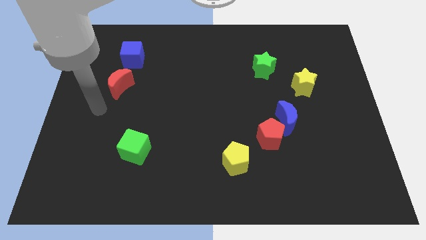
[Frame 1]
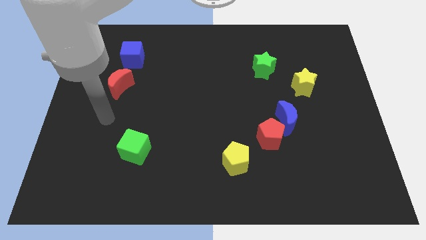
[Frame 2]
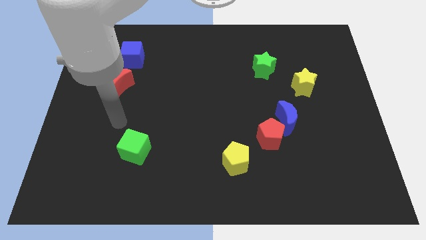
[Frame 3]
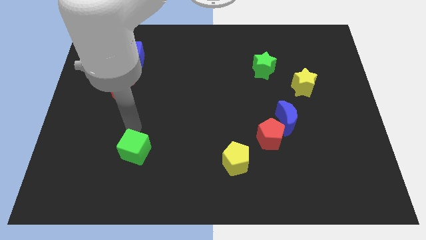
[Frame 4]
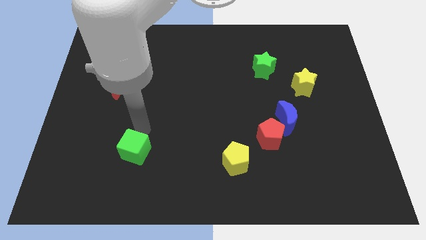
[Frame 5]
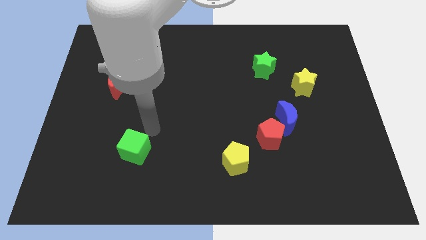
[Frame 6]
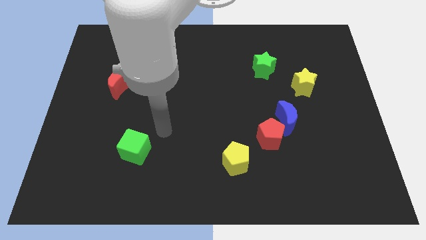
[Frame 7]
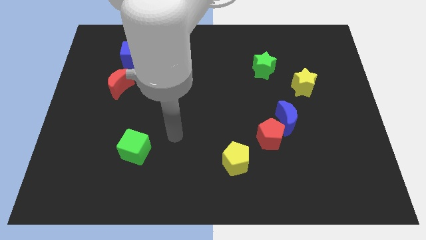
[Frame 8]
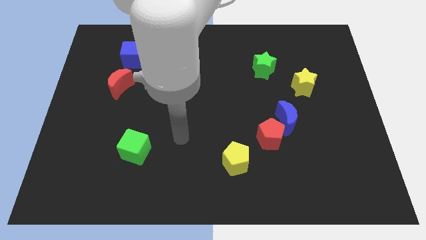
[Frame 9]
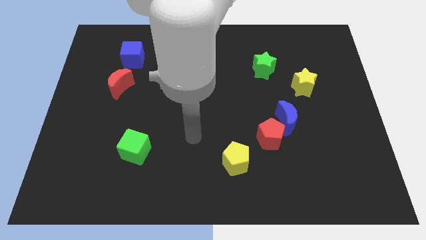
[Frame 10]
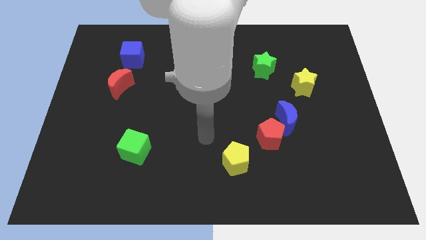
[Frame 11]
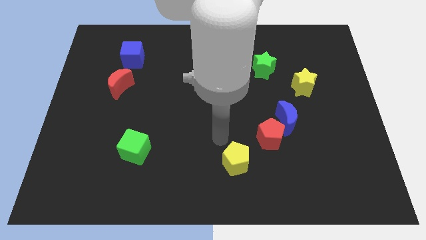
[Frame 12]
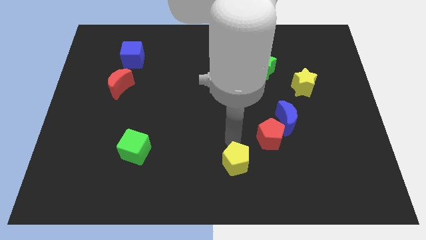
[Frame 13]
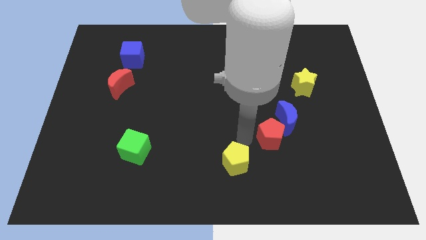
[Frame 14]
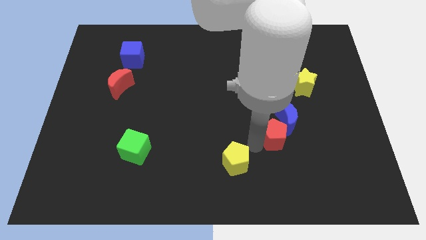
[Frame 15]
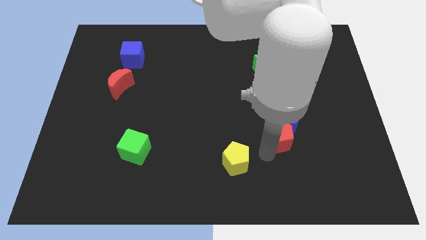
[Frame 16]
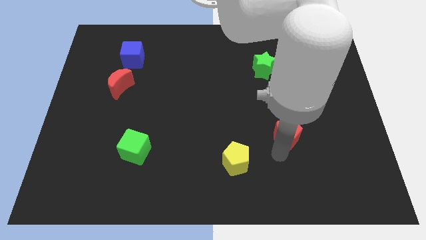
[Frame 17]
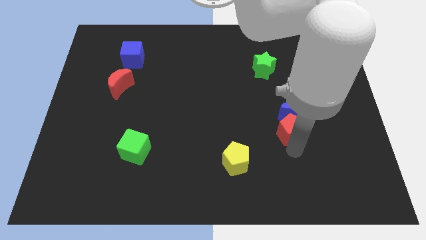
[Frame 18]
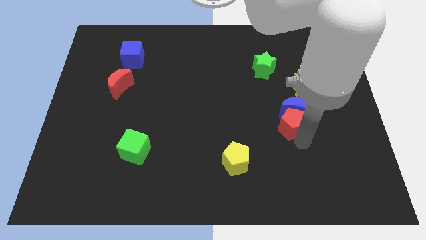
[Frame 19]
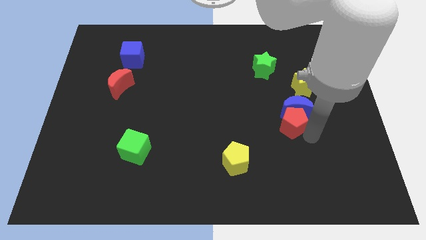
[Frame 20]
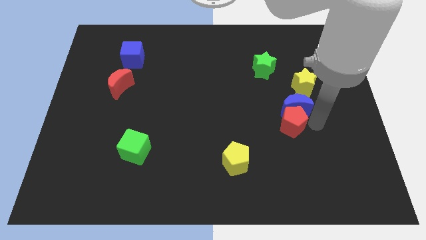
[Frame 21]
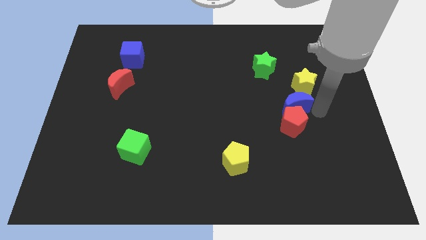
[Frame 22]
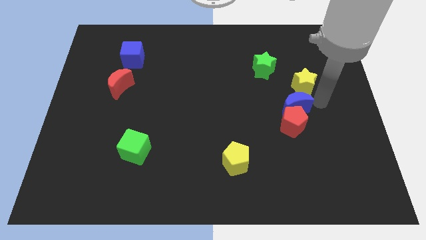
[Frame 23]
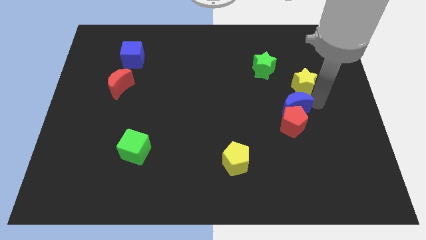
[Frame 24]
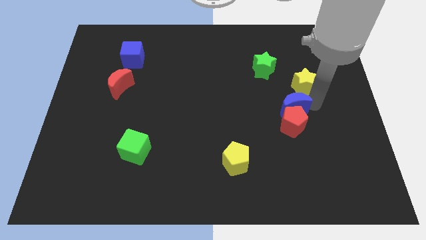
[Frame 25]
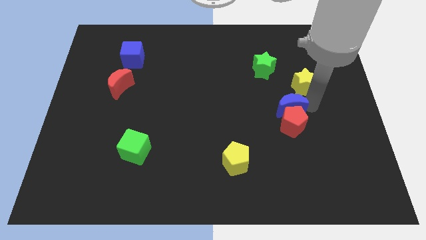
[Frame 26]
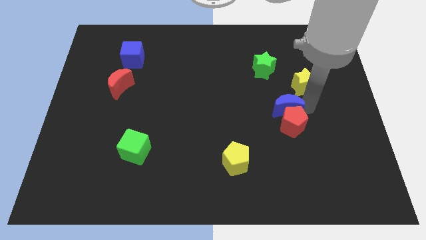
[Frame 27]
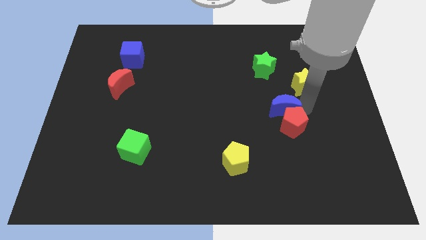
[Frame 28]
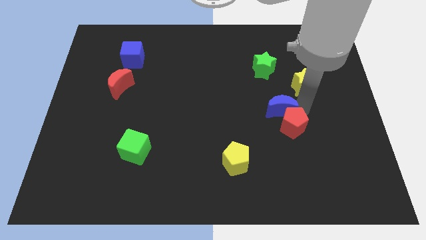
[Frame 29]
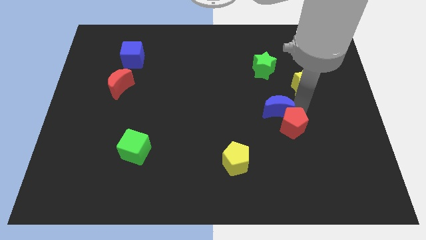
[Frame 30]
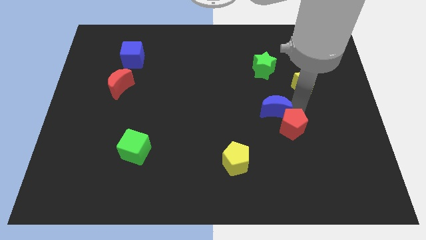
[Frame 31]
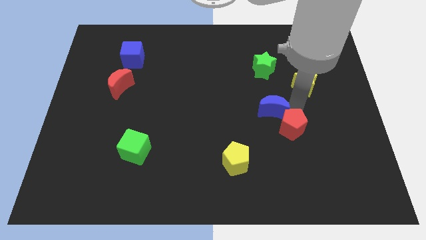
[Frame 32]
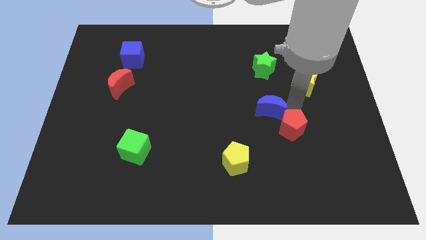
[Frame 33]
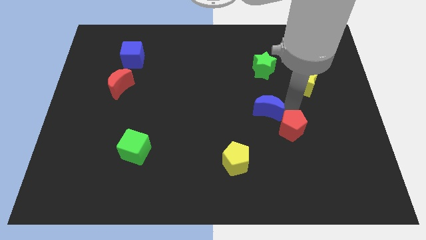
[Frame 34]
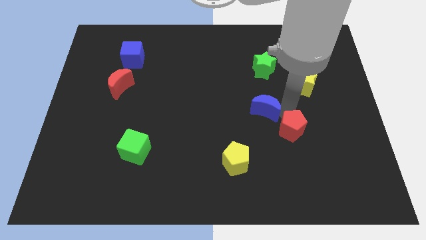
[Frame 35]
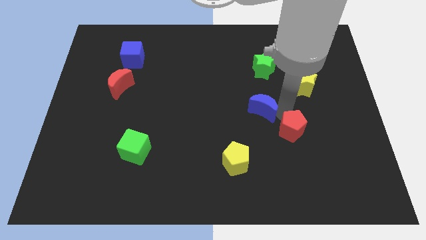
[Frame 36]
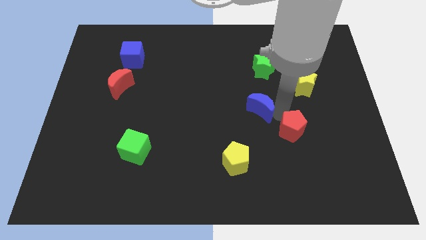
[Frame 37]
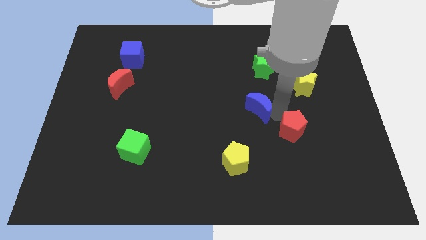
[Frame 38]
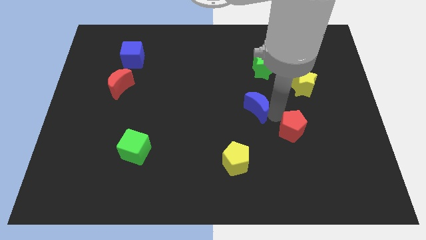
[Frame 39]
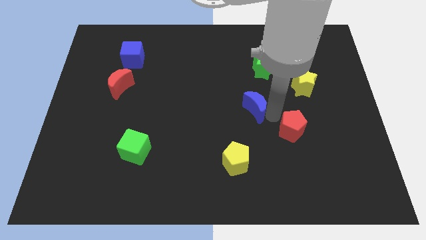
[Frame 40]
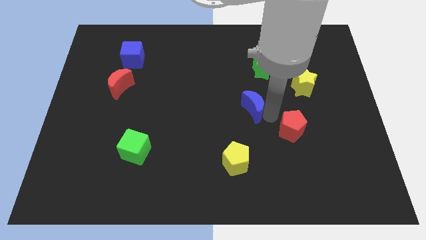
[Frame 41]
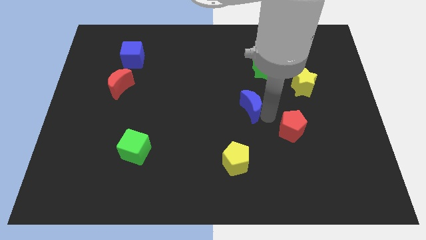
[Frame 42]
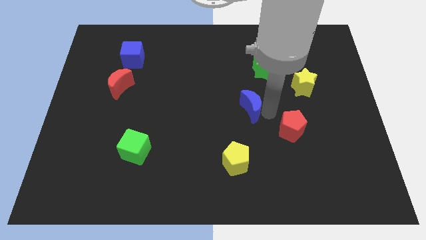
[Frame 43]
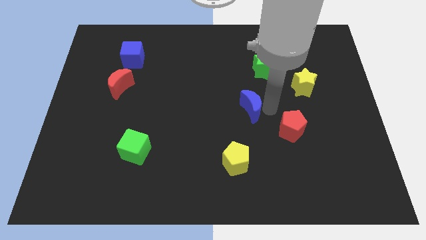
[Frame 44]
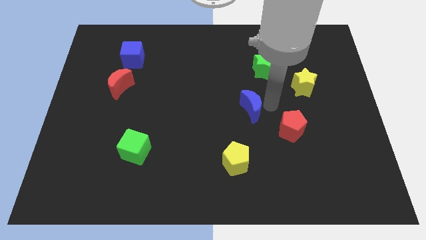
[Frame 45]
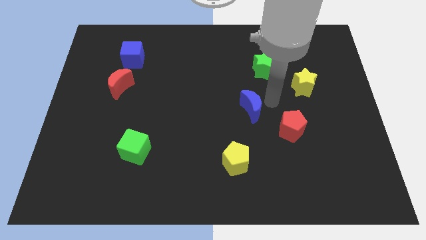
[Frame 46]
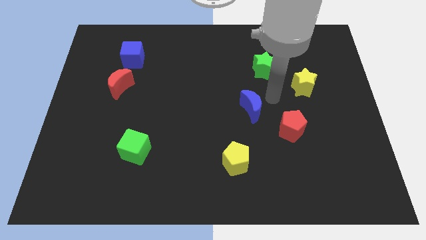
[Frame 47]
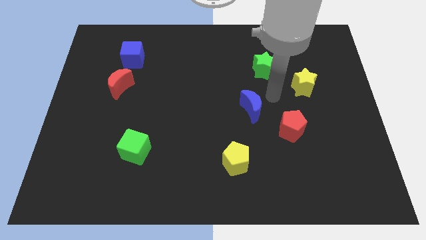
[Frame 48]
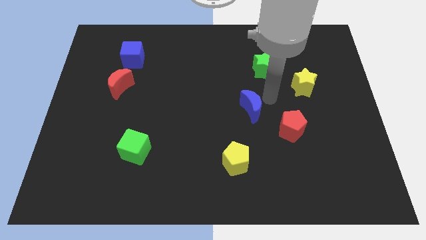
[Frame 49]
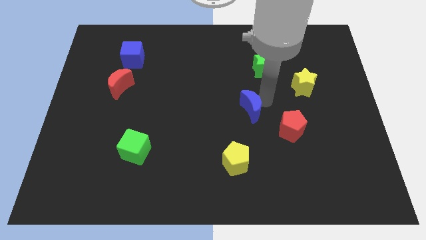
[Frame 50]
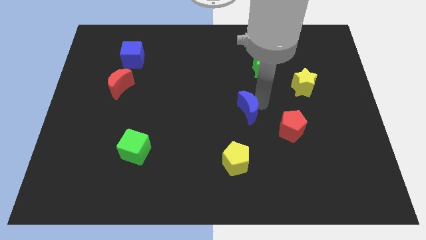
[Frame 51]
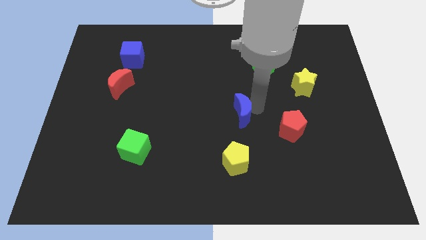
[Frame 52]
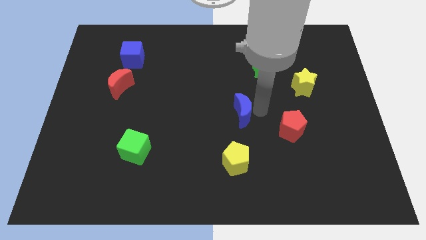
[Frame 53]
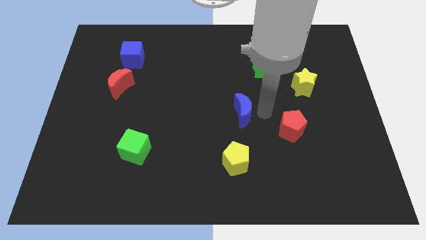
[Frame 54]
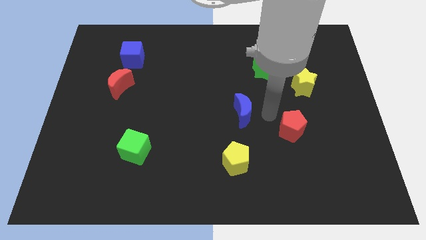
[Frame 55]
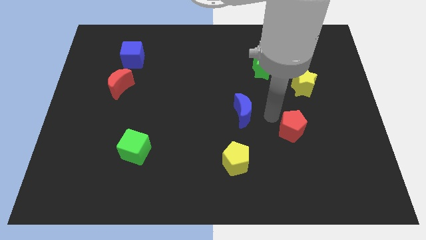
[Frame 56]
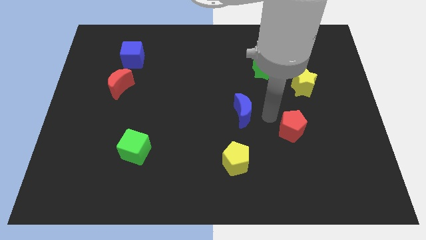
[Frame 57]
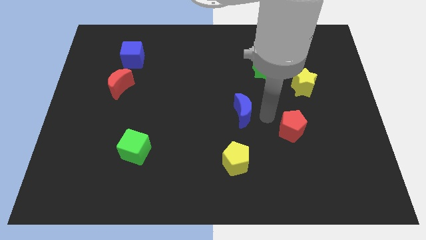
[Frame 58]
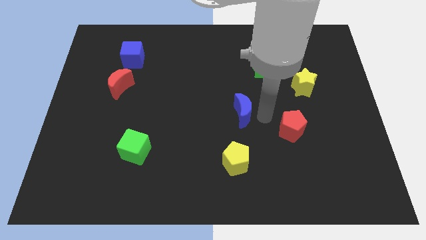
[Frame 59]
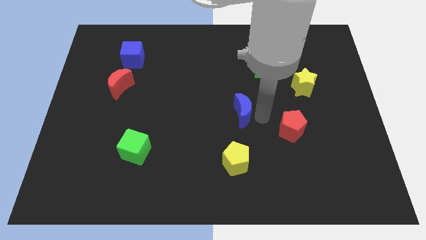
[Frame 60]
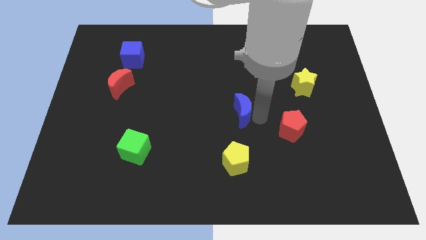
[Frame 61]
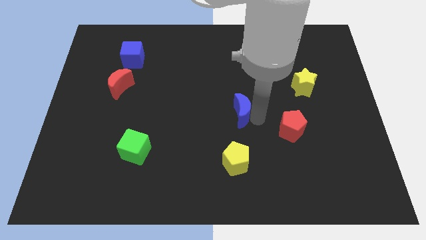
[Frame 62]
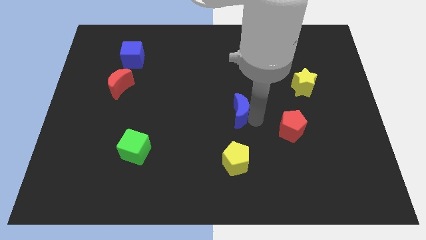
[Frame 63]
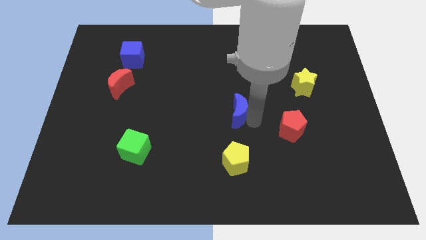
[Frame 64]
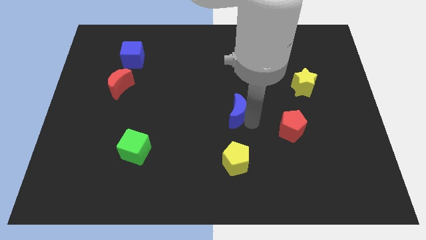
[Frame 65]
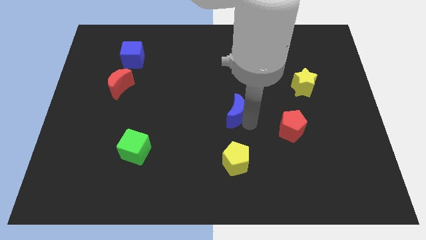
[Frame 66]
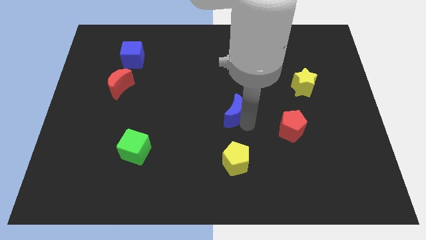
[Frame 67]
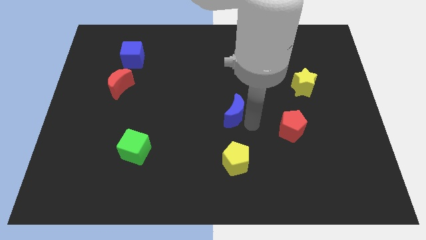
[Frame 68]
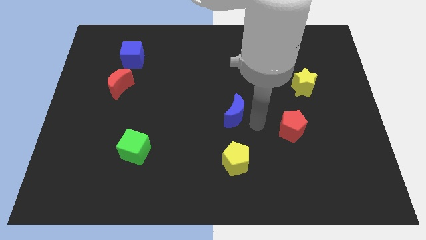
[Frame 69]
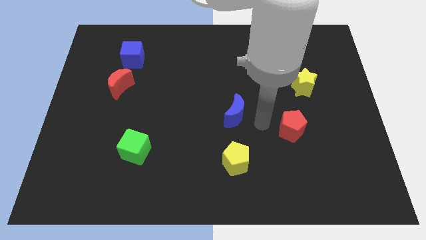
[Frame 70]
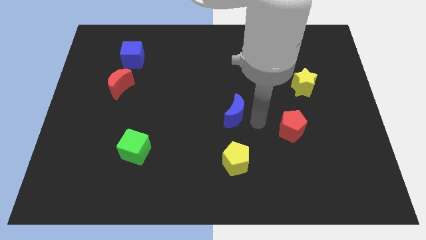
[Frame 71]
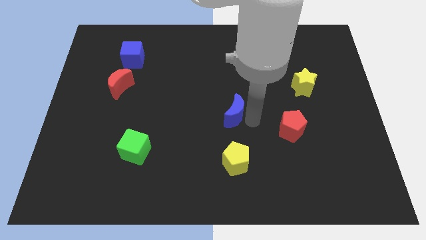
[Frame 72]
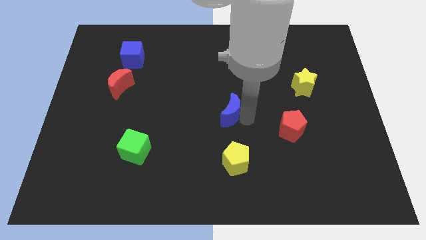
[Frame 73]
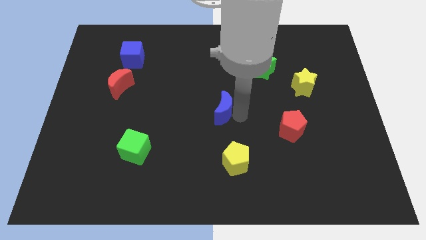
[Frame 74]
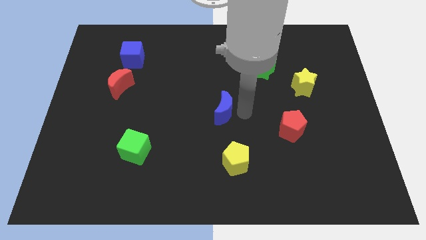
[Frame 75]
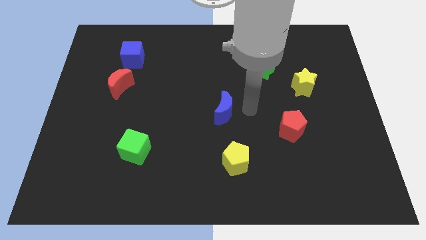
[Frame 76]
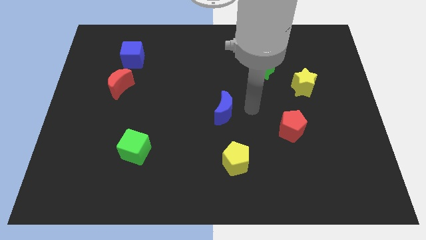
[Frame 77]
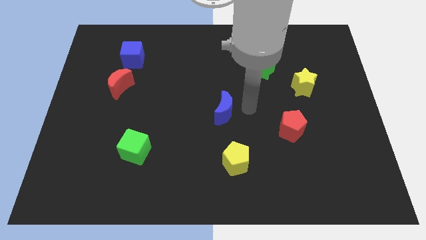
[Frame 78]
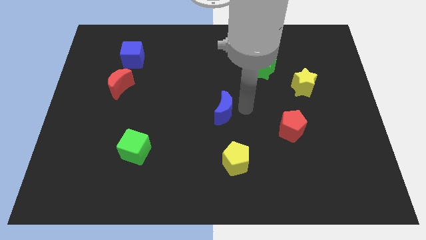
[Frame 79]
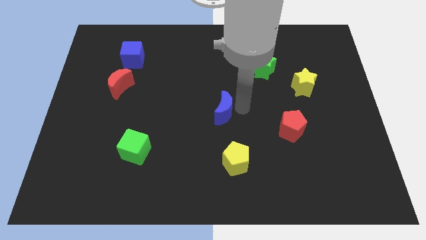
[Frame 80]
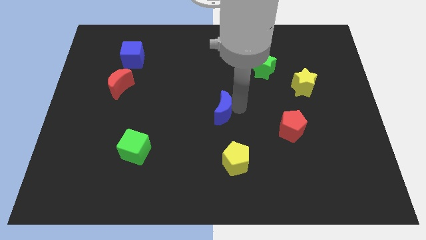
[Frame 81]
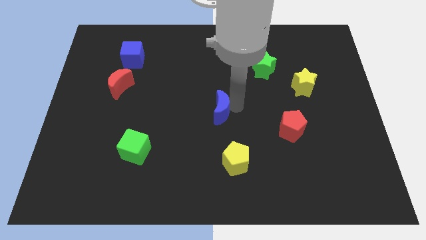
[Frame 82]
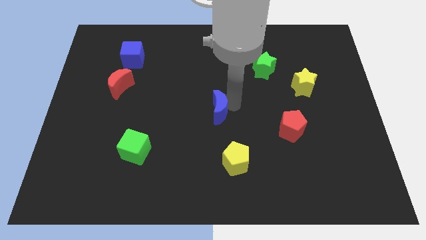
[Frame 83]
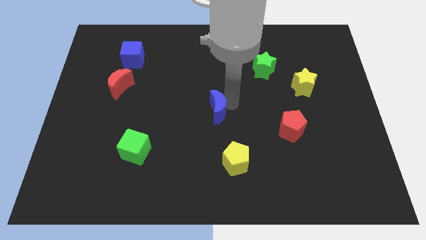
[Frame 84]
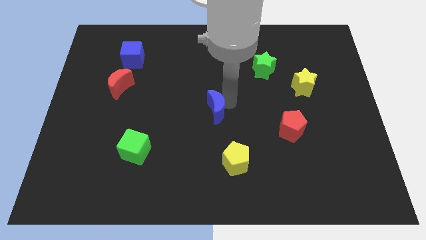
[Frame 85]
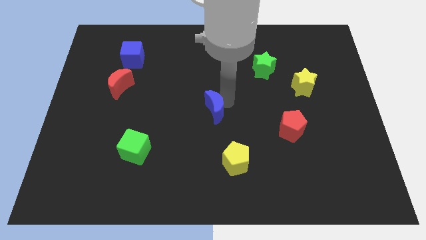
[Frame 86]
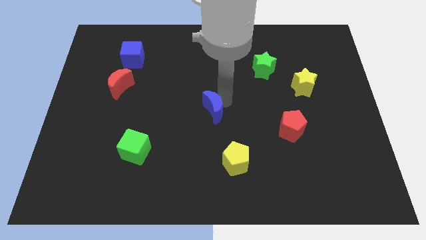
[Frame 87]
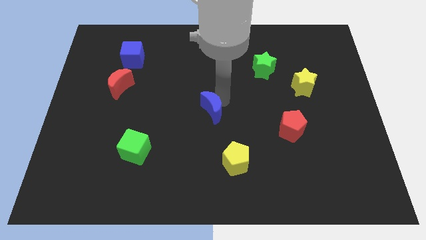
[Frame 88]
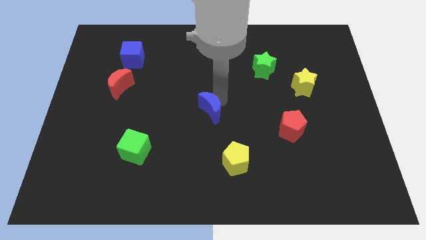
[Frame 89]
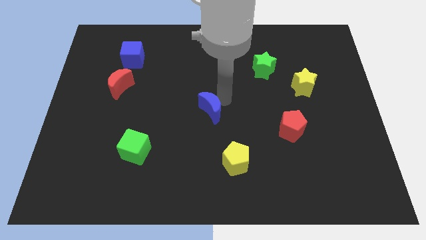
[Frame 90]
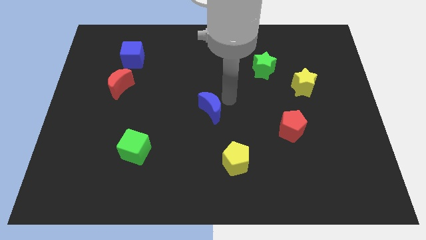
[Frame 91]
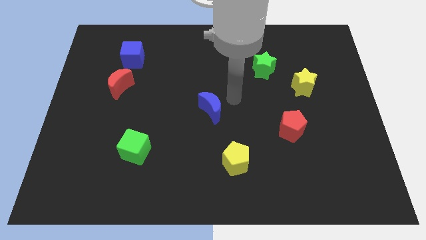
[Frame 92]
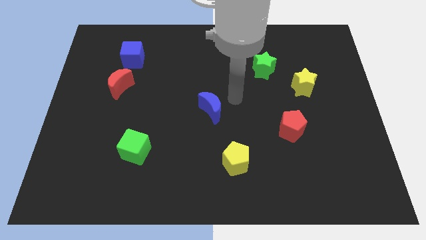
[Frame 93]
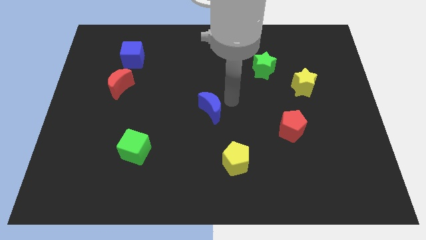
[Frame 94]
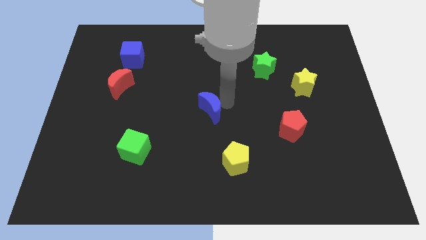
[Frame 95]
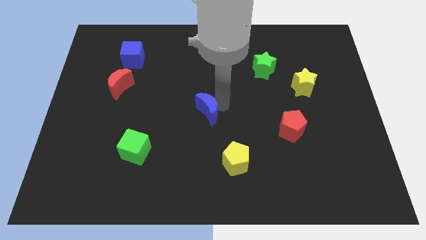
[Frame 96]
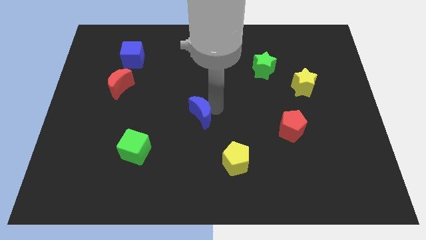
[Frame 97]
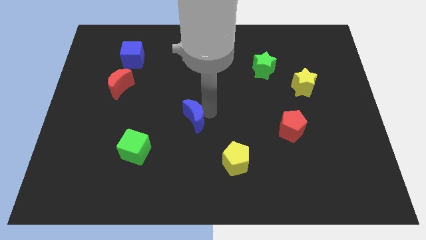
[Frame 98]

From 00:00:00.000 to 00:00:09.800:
slide the blue moon to the left
